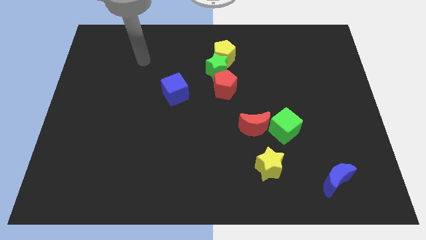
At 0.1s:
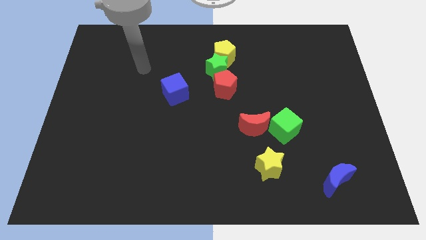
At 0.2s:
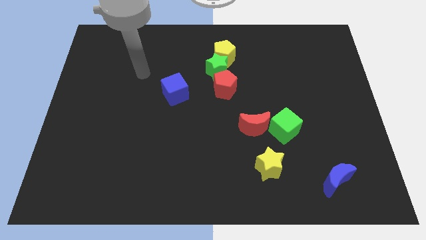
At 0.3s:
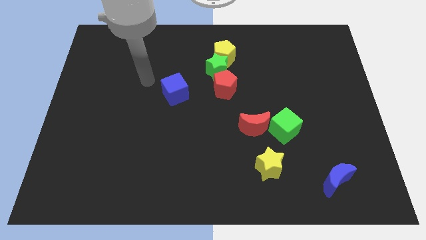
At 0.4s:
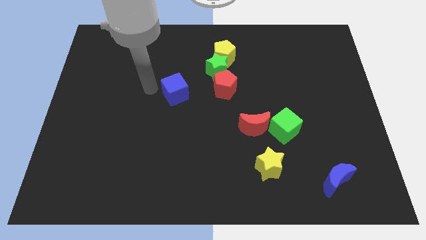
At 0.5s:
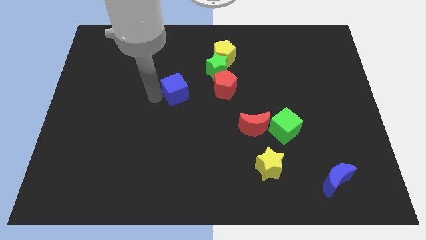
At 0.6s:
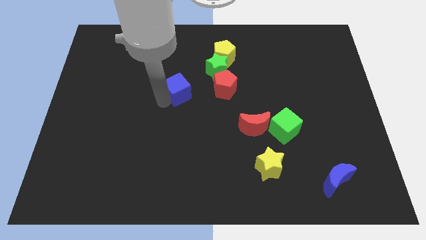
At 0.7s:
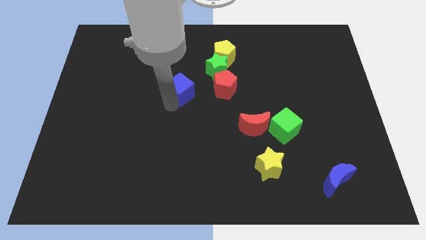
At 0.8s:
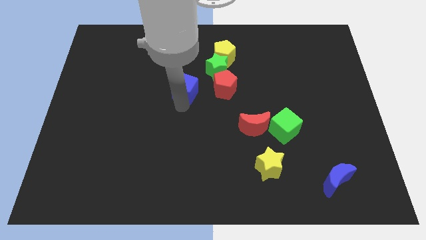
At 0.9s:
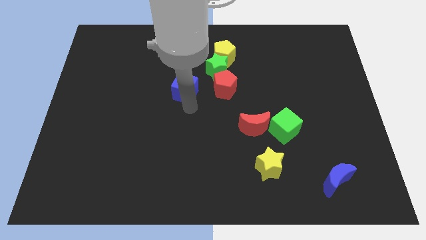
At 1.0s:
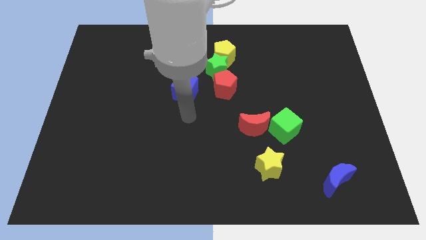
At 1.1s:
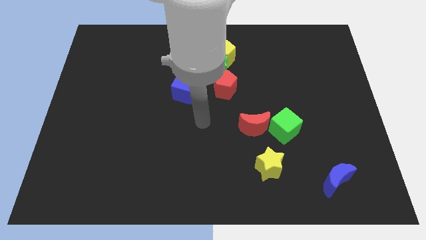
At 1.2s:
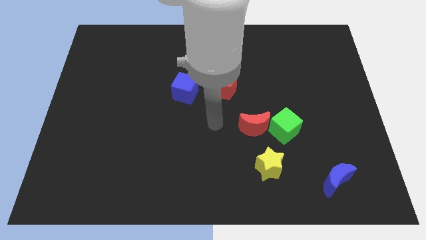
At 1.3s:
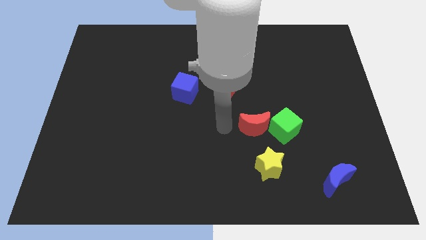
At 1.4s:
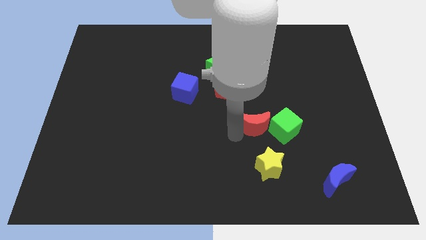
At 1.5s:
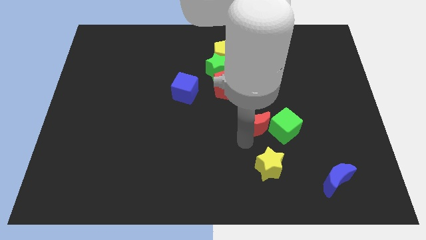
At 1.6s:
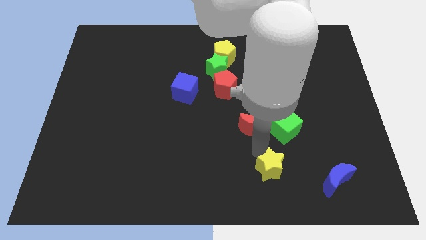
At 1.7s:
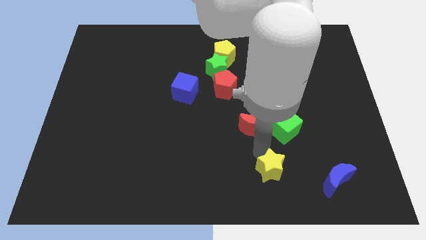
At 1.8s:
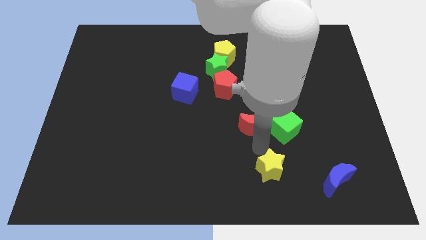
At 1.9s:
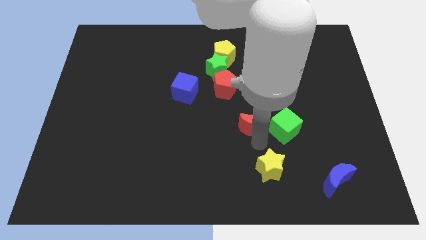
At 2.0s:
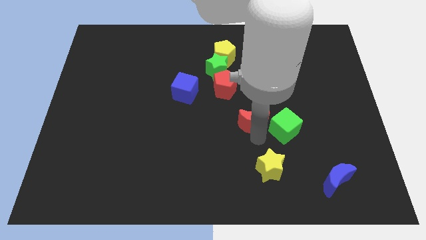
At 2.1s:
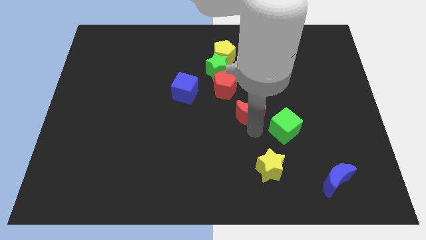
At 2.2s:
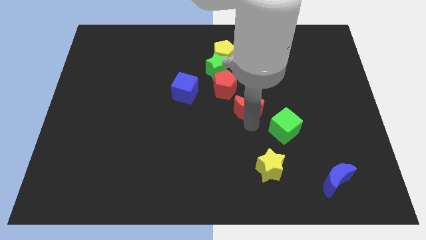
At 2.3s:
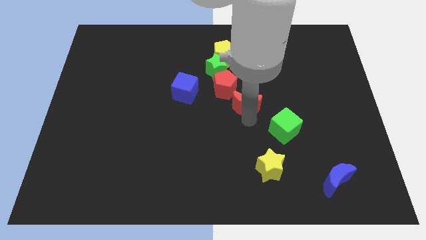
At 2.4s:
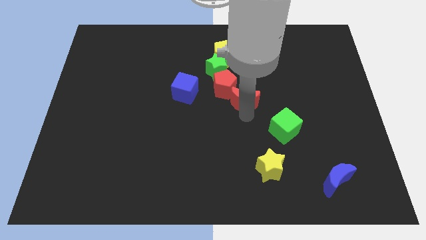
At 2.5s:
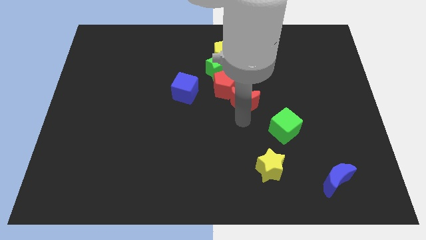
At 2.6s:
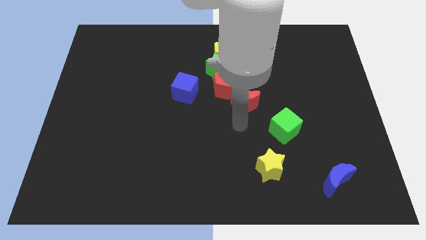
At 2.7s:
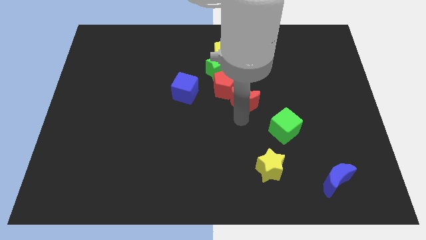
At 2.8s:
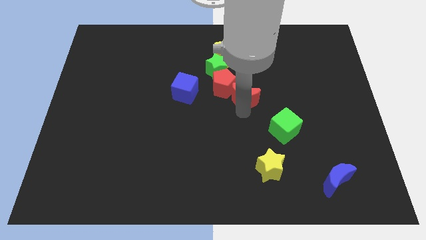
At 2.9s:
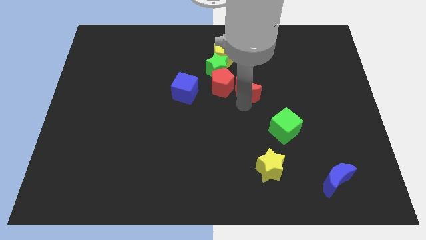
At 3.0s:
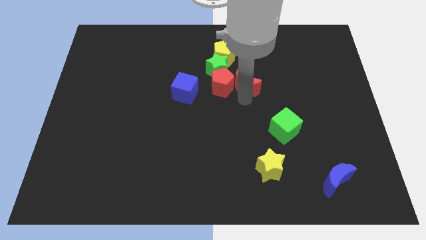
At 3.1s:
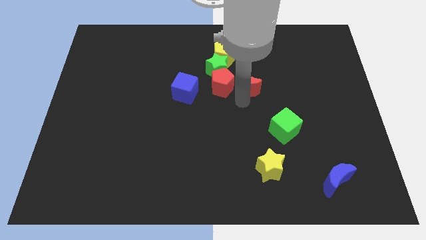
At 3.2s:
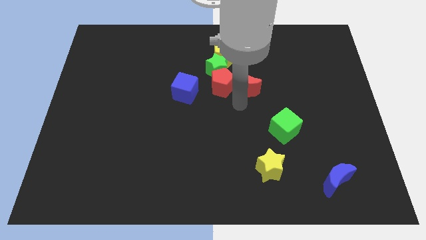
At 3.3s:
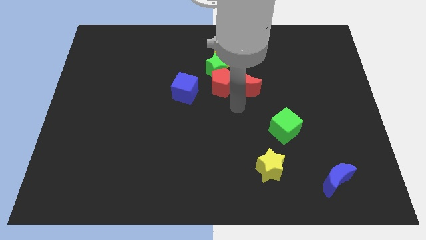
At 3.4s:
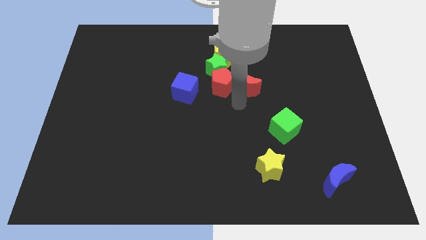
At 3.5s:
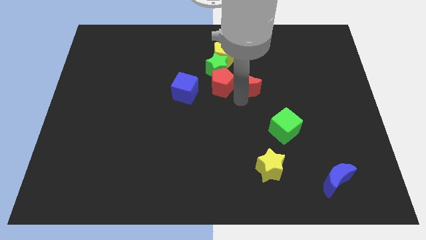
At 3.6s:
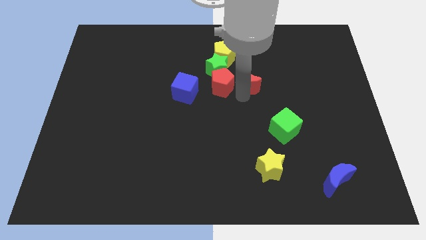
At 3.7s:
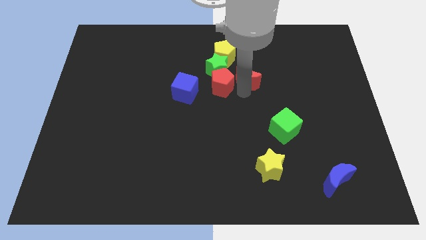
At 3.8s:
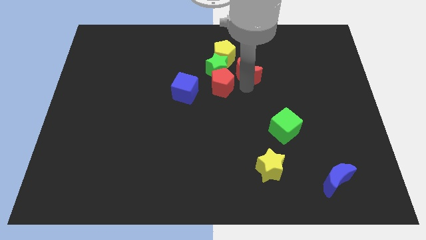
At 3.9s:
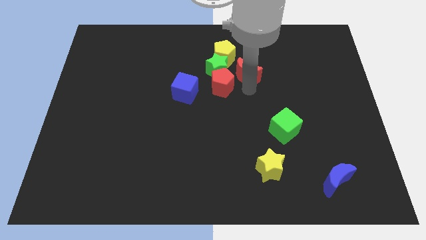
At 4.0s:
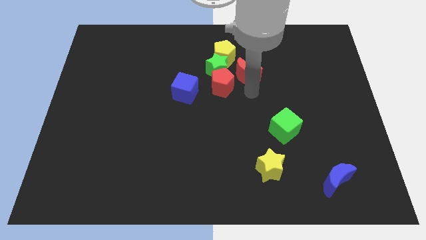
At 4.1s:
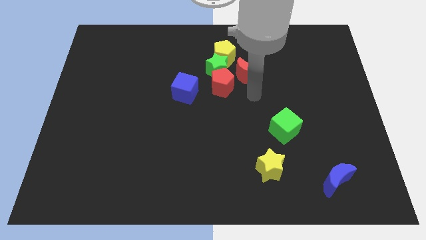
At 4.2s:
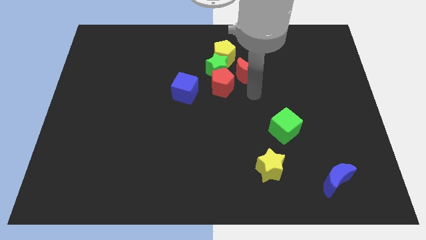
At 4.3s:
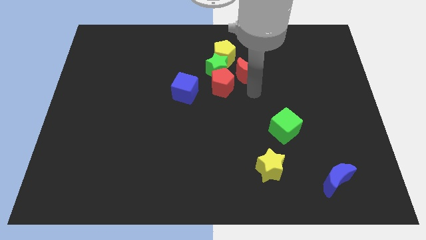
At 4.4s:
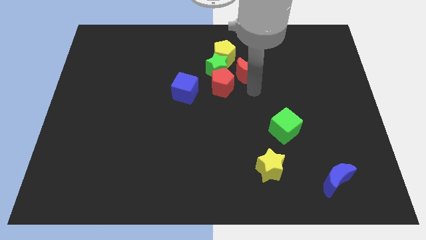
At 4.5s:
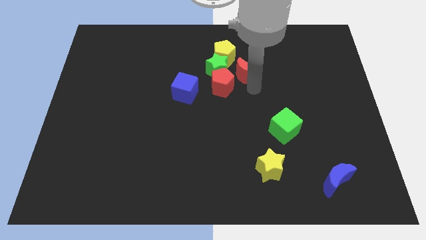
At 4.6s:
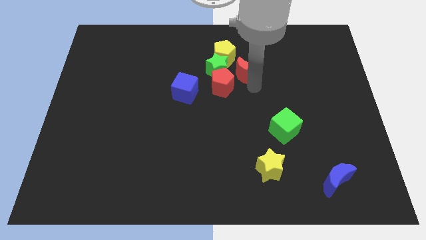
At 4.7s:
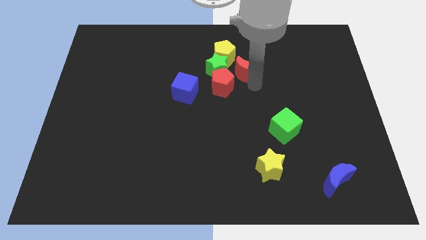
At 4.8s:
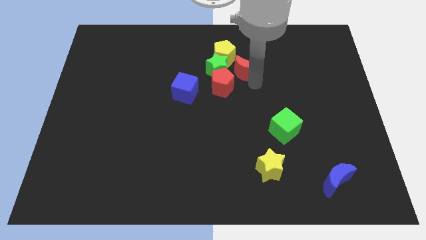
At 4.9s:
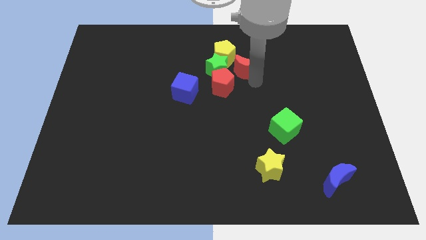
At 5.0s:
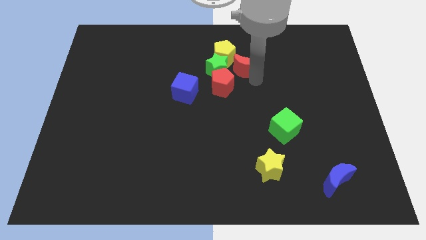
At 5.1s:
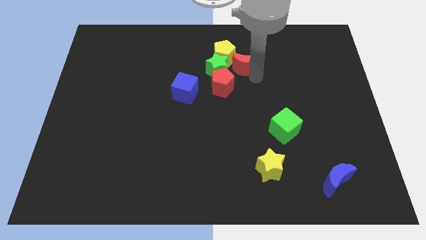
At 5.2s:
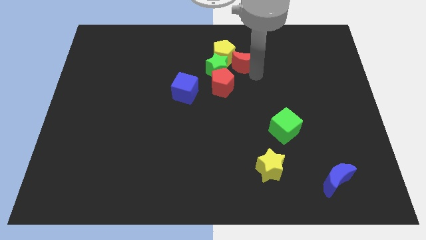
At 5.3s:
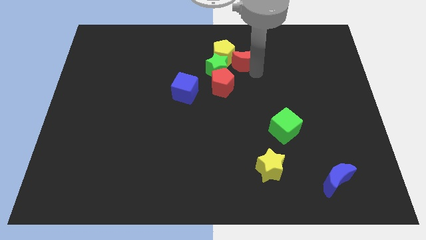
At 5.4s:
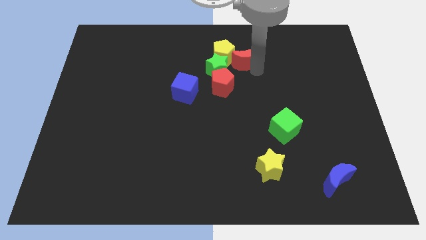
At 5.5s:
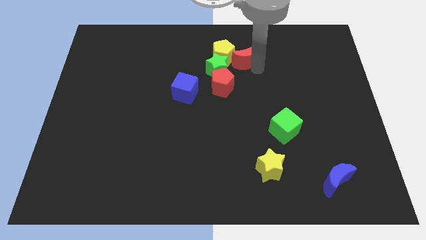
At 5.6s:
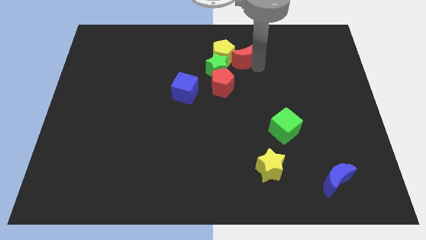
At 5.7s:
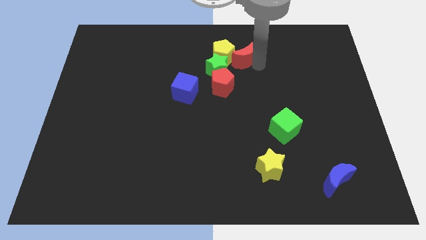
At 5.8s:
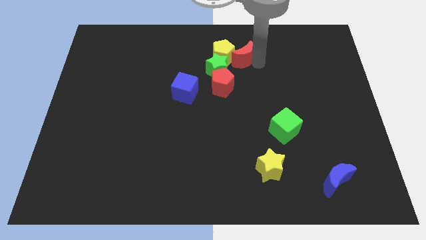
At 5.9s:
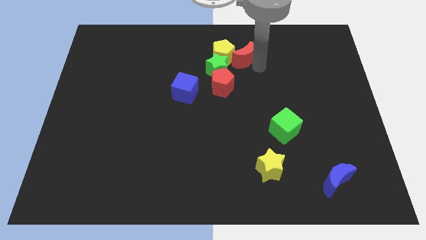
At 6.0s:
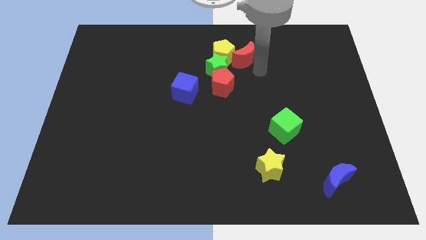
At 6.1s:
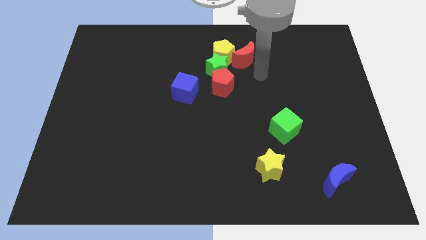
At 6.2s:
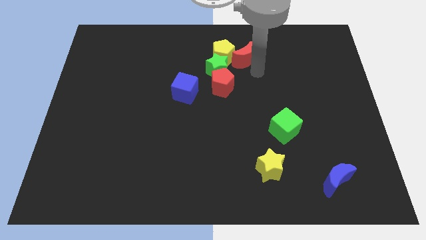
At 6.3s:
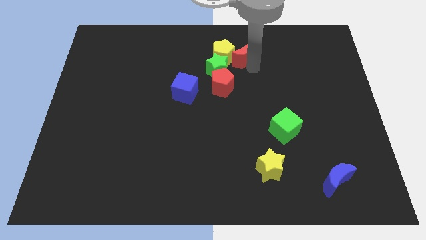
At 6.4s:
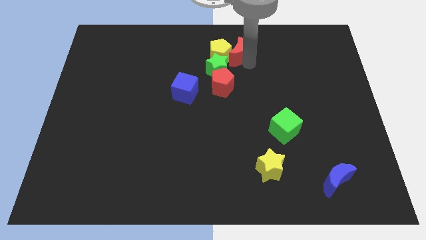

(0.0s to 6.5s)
move the red moon above the red pentagon

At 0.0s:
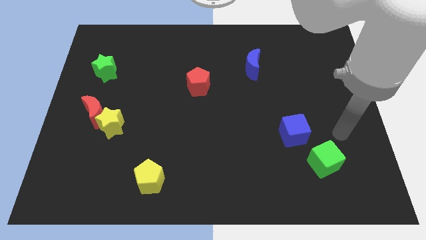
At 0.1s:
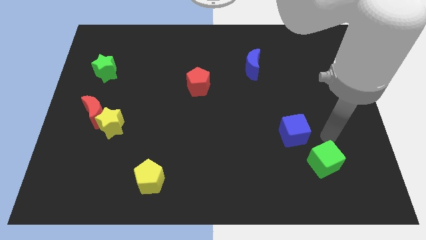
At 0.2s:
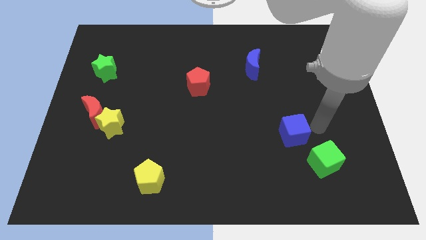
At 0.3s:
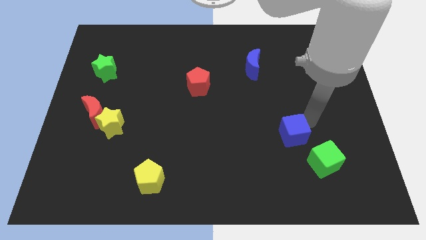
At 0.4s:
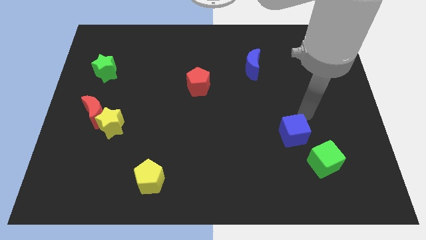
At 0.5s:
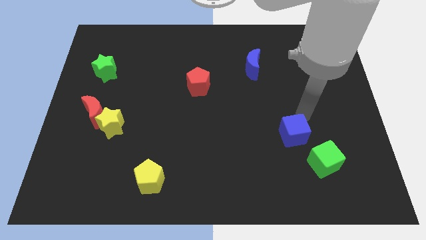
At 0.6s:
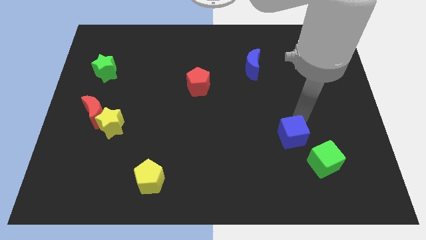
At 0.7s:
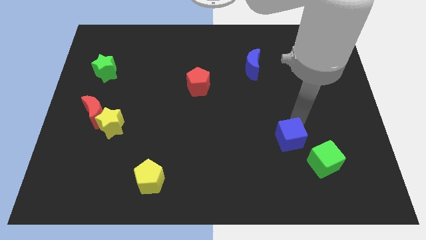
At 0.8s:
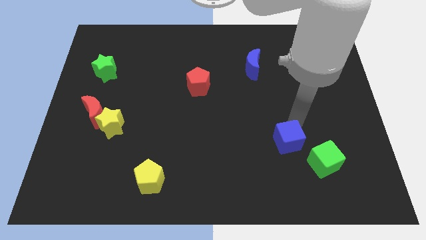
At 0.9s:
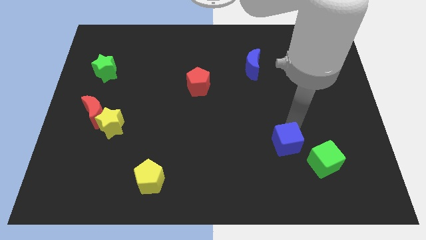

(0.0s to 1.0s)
slide the blue cube to the left of the green cube
